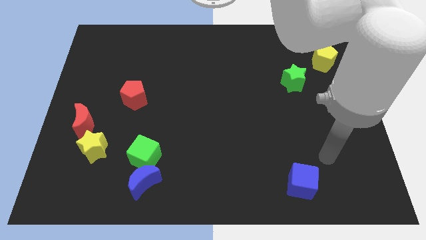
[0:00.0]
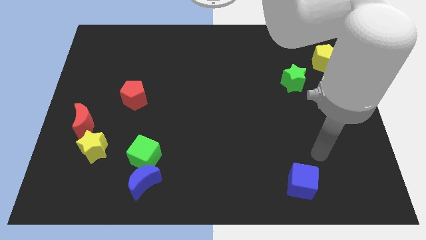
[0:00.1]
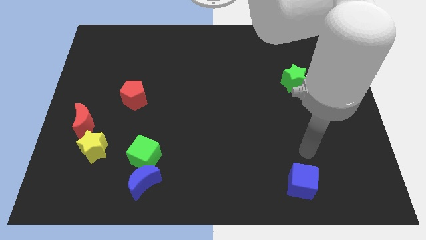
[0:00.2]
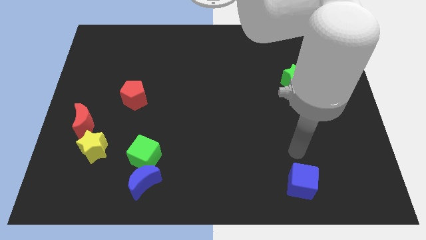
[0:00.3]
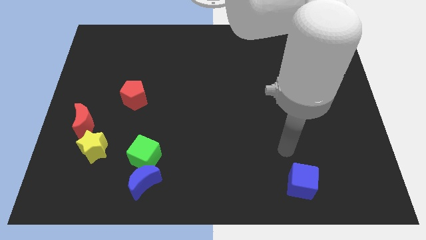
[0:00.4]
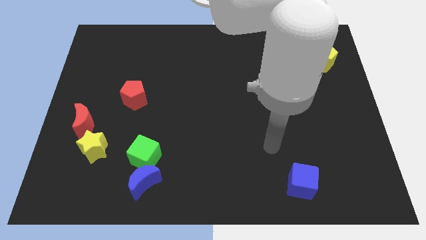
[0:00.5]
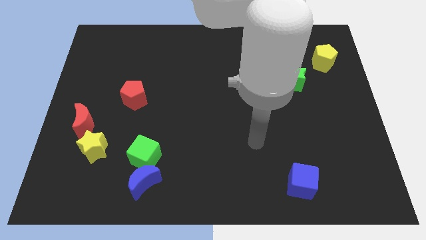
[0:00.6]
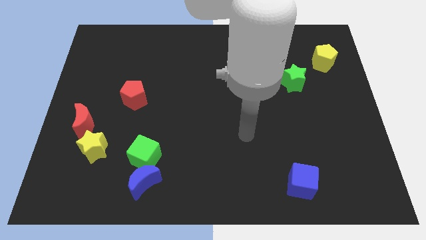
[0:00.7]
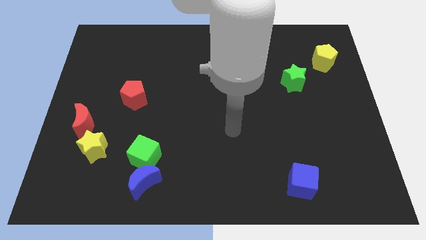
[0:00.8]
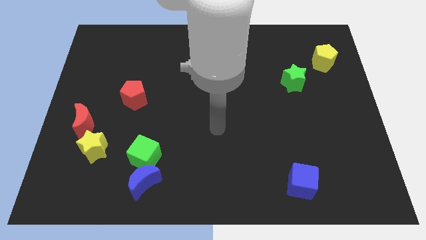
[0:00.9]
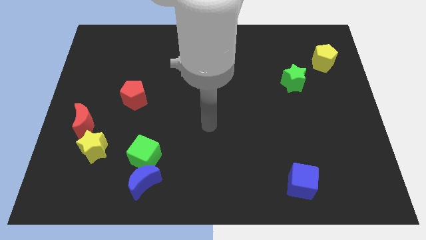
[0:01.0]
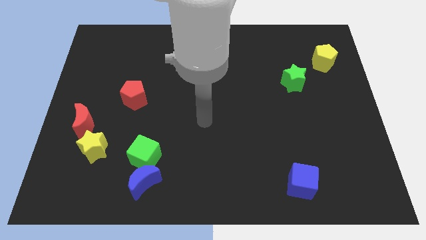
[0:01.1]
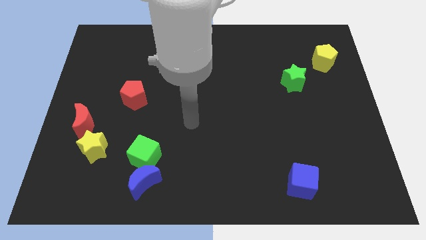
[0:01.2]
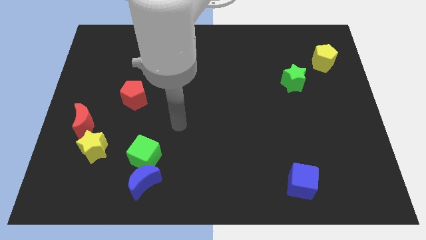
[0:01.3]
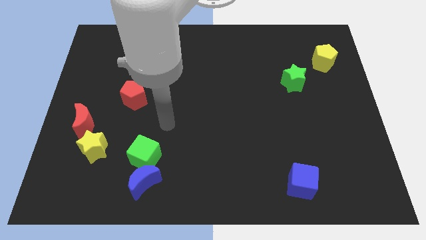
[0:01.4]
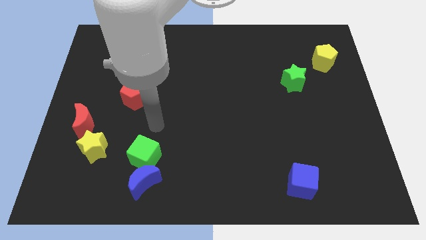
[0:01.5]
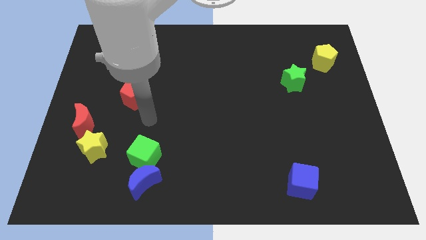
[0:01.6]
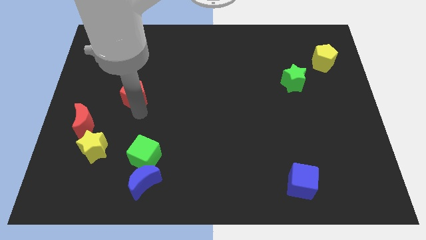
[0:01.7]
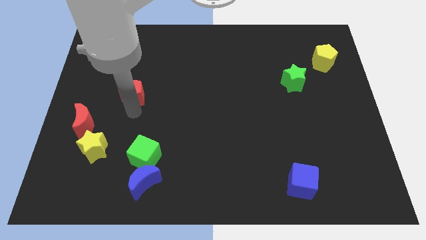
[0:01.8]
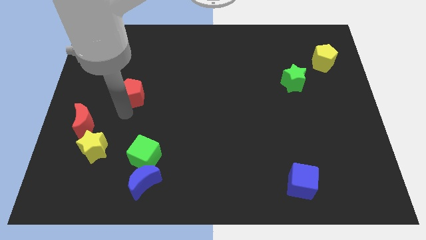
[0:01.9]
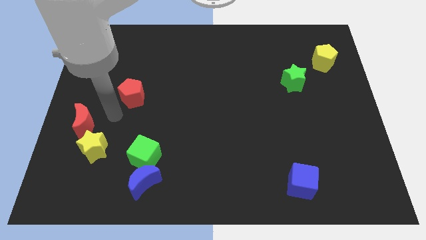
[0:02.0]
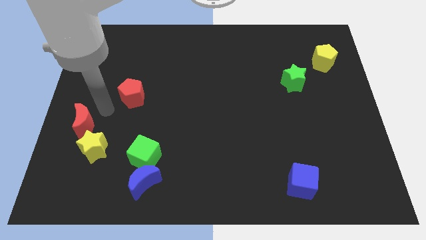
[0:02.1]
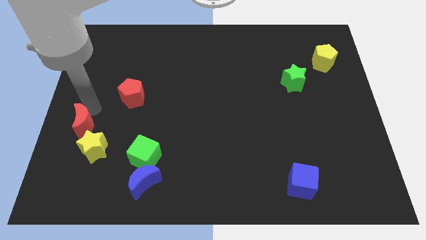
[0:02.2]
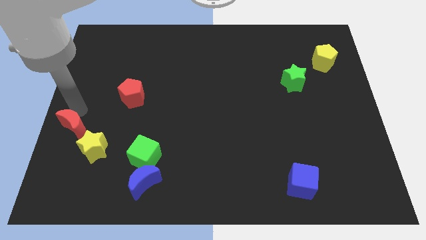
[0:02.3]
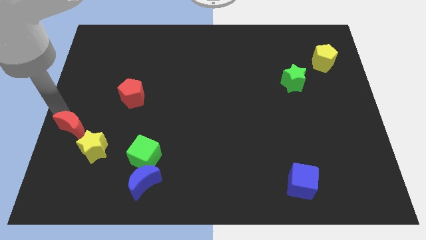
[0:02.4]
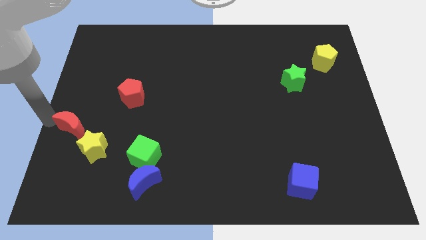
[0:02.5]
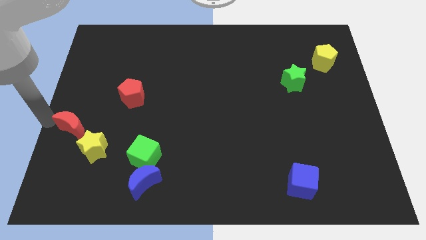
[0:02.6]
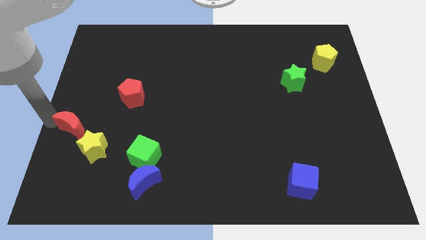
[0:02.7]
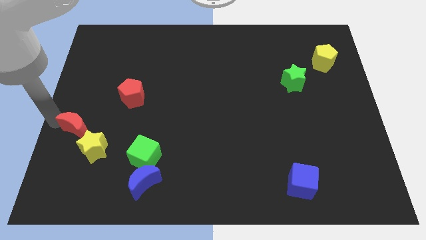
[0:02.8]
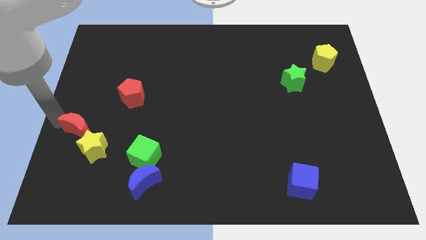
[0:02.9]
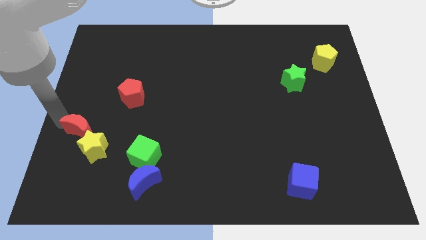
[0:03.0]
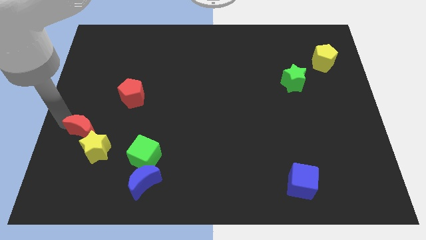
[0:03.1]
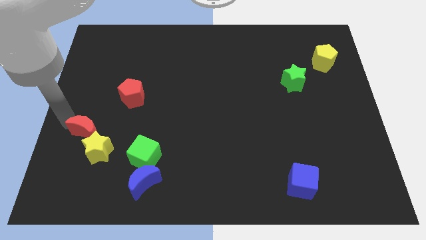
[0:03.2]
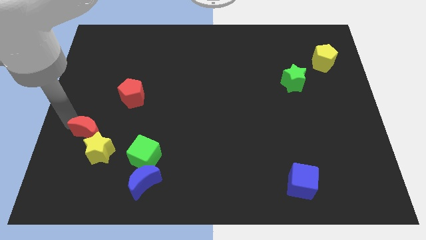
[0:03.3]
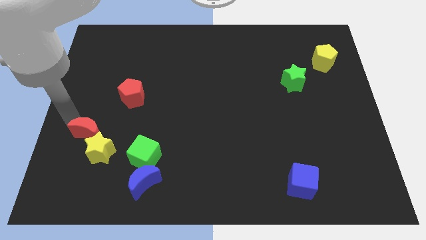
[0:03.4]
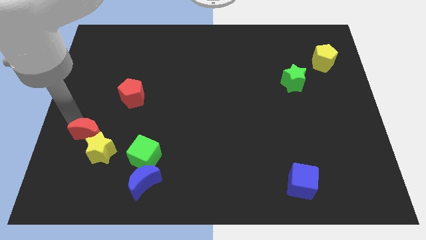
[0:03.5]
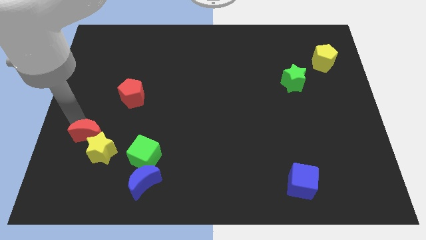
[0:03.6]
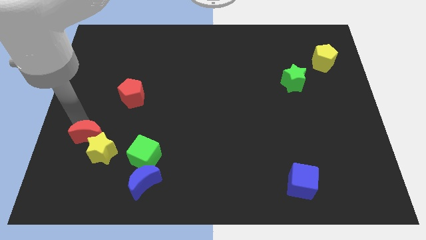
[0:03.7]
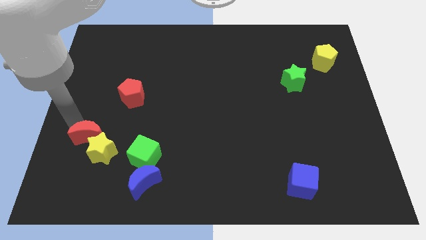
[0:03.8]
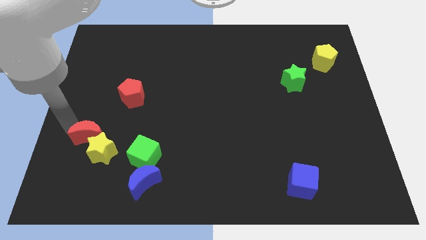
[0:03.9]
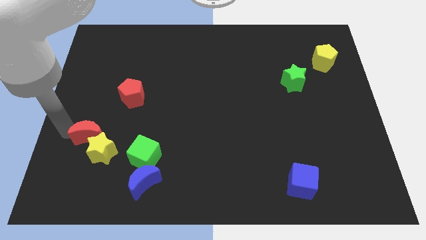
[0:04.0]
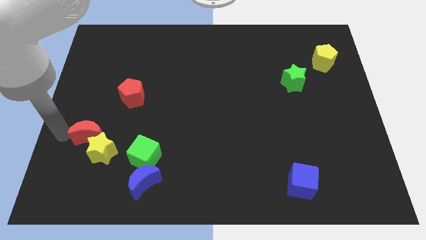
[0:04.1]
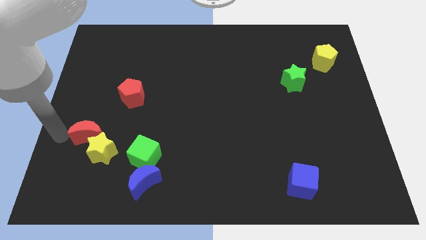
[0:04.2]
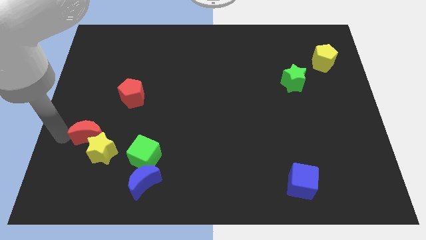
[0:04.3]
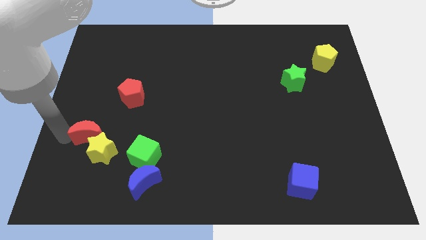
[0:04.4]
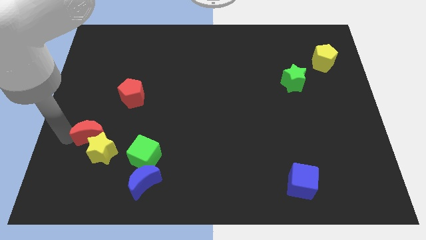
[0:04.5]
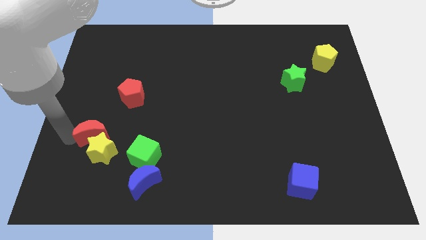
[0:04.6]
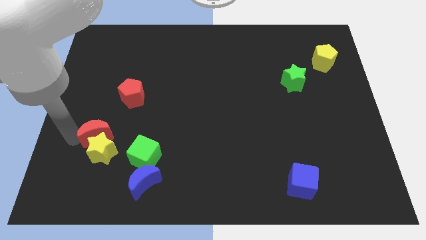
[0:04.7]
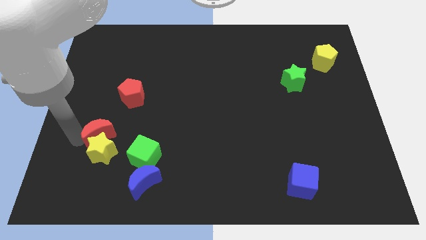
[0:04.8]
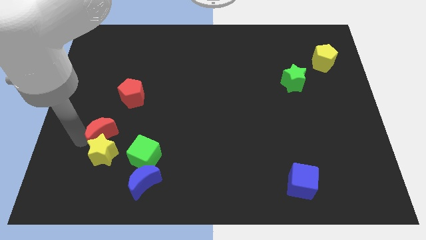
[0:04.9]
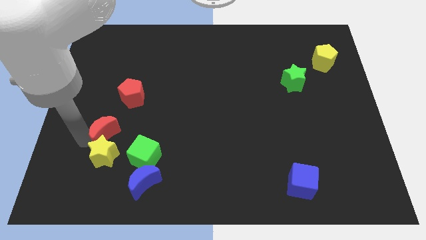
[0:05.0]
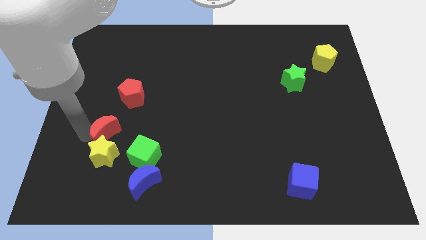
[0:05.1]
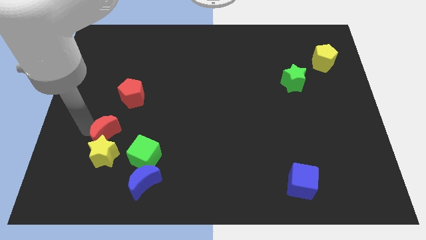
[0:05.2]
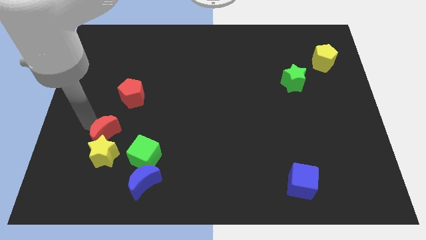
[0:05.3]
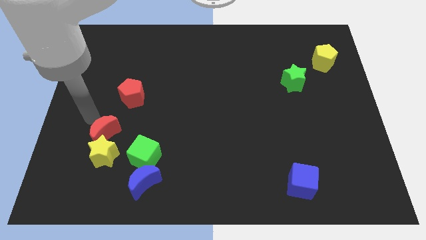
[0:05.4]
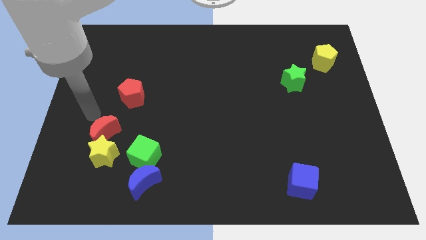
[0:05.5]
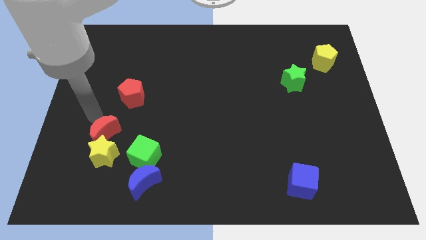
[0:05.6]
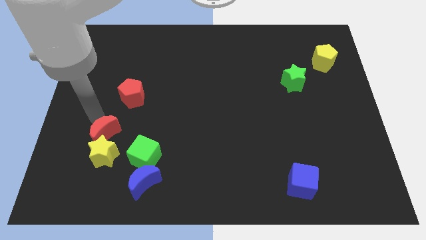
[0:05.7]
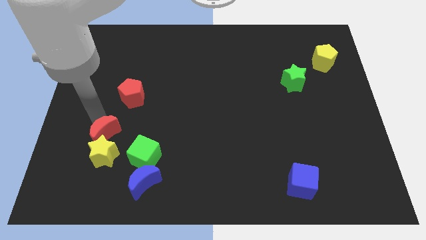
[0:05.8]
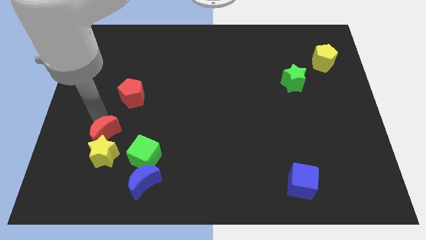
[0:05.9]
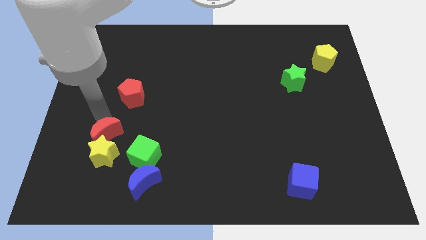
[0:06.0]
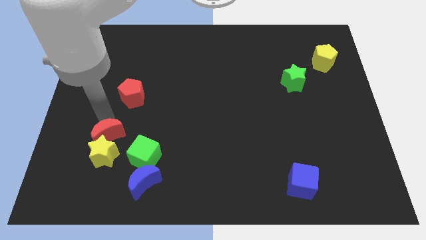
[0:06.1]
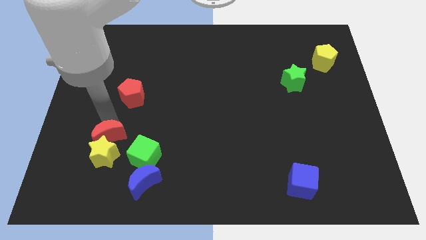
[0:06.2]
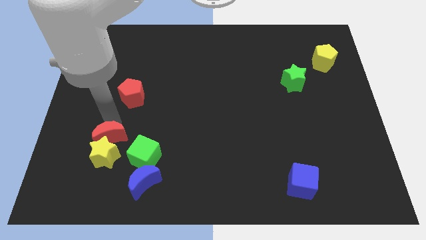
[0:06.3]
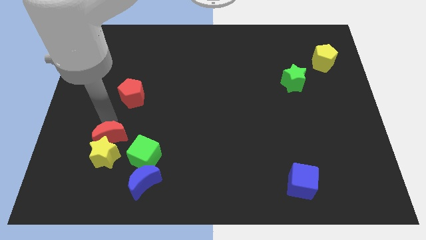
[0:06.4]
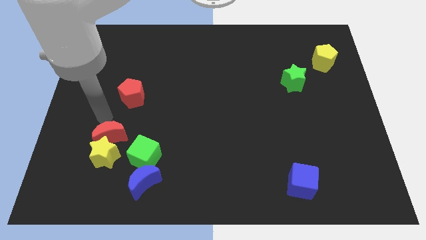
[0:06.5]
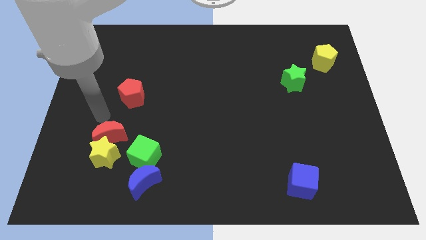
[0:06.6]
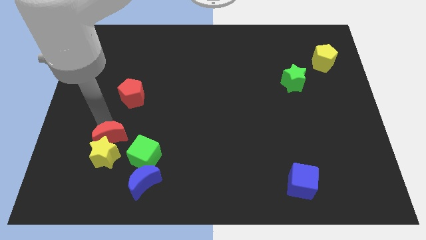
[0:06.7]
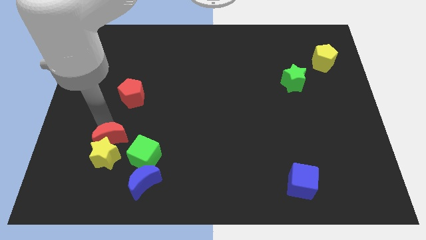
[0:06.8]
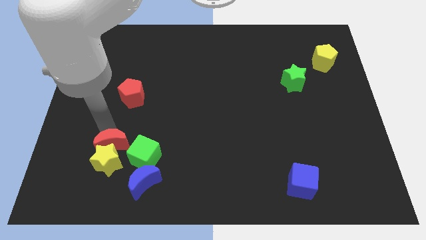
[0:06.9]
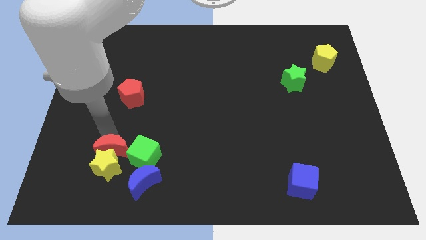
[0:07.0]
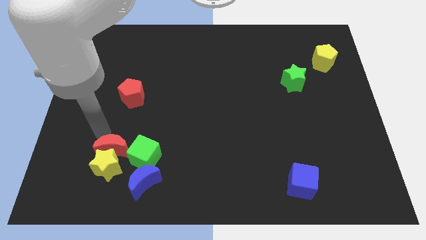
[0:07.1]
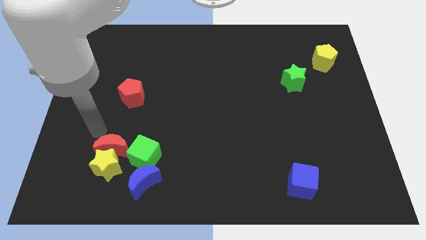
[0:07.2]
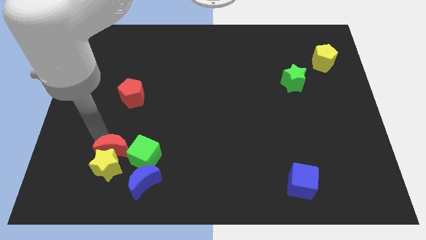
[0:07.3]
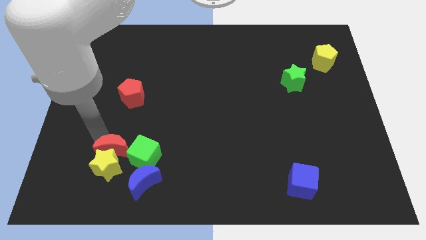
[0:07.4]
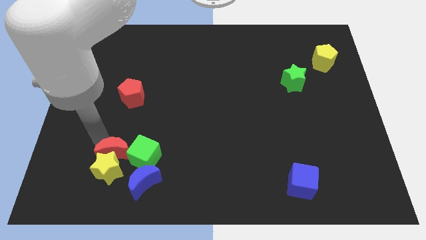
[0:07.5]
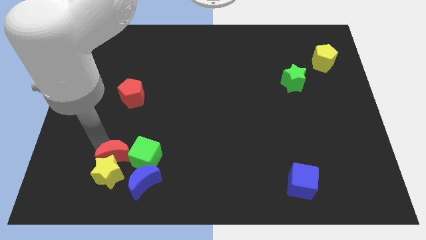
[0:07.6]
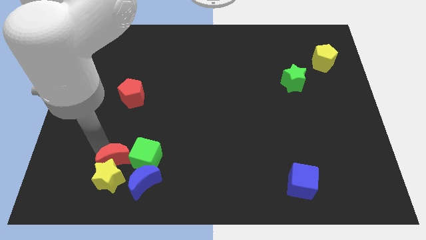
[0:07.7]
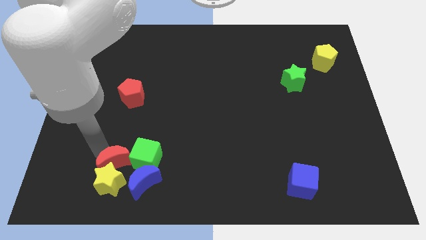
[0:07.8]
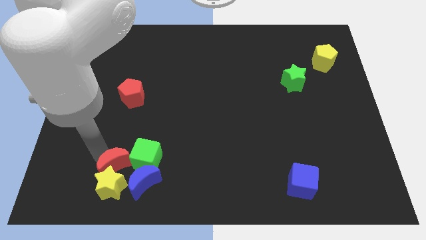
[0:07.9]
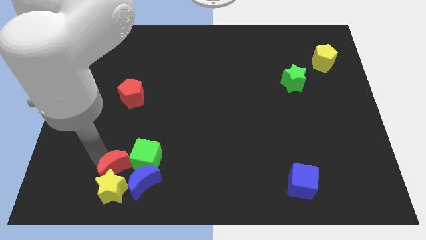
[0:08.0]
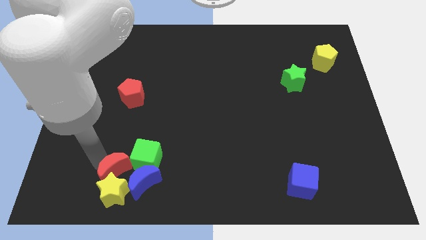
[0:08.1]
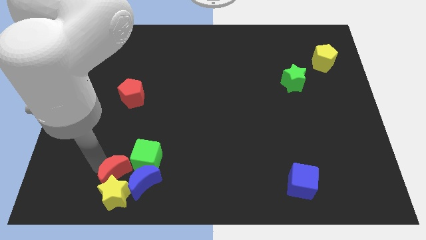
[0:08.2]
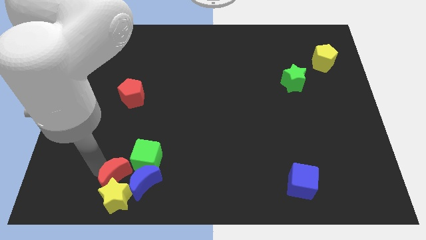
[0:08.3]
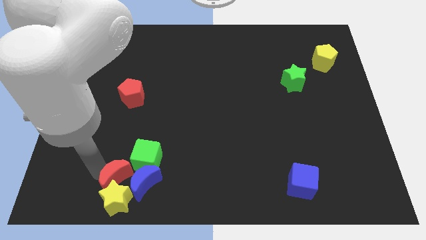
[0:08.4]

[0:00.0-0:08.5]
move the red moon towards the blue moon
